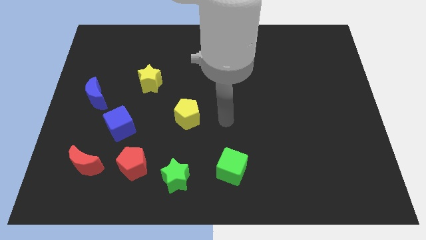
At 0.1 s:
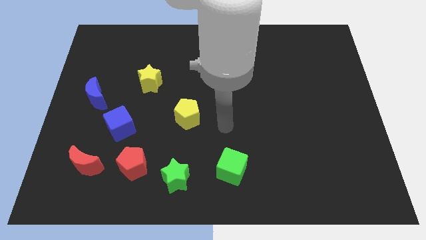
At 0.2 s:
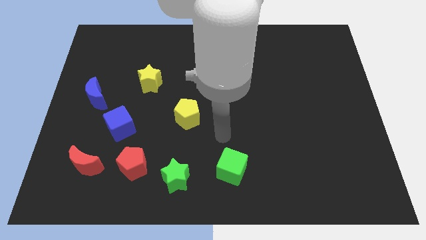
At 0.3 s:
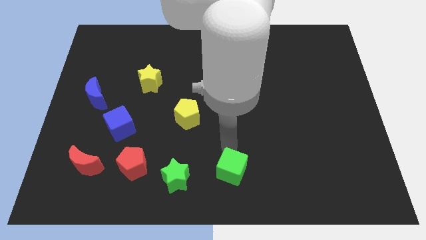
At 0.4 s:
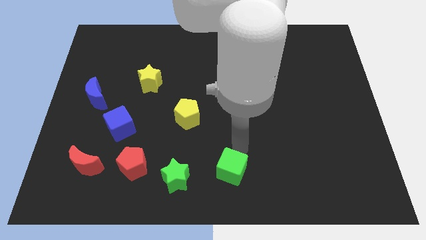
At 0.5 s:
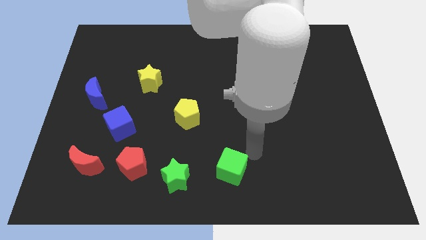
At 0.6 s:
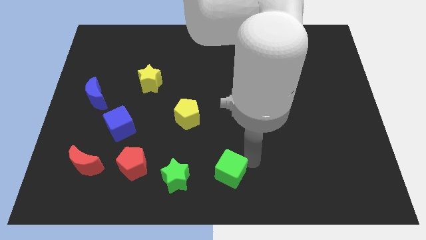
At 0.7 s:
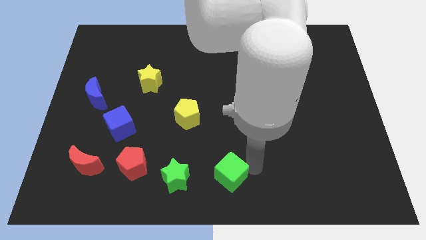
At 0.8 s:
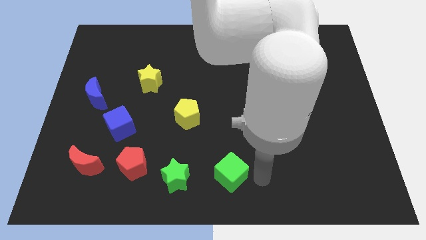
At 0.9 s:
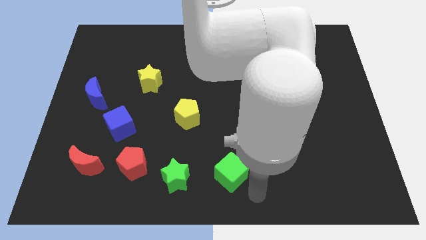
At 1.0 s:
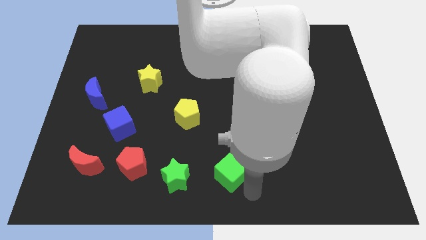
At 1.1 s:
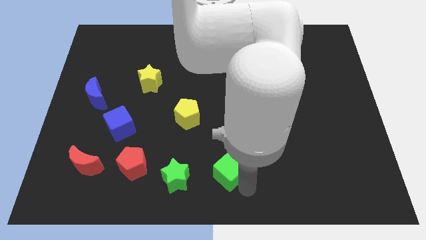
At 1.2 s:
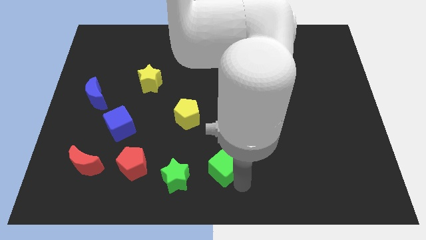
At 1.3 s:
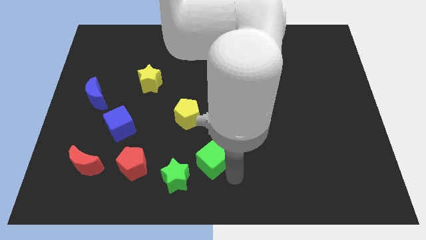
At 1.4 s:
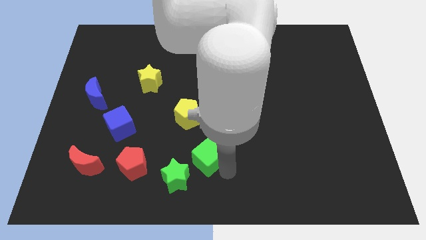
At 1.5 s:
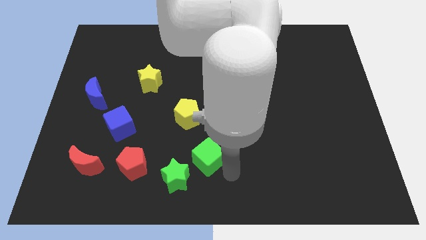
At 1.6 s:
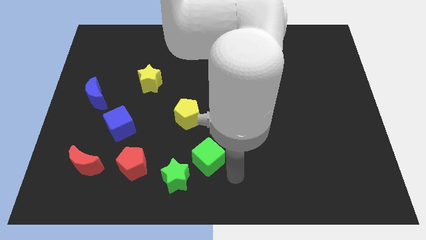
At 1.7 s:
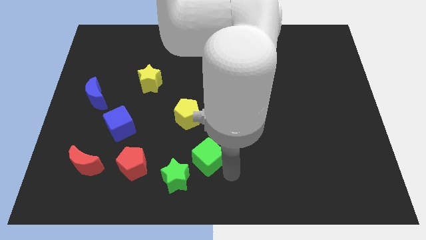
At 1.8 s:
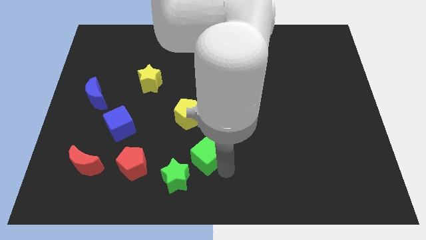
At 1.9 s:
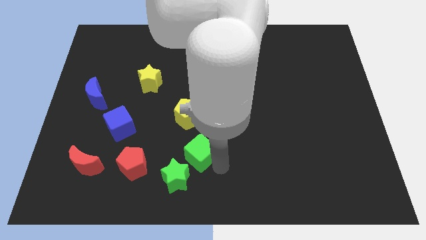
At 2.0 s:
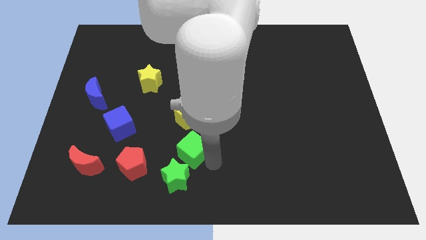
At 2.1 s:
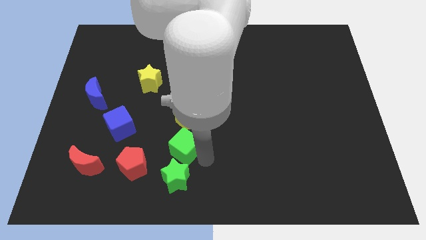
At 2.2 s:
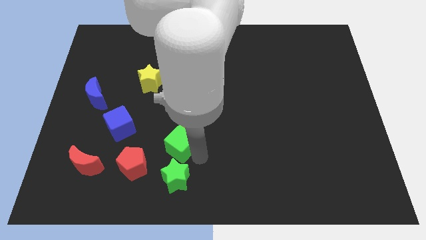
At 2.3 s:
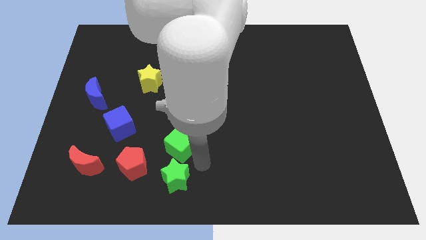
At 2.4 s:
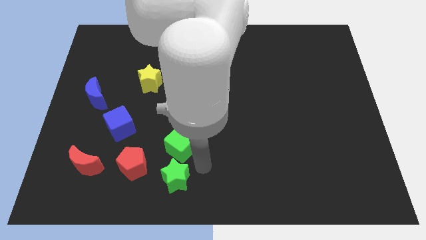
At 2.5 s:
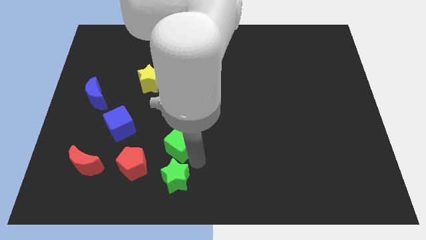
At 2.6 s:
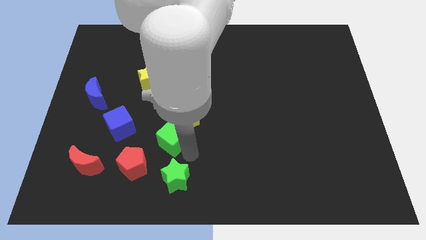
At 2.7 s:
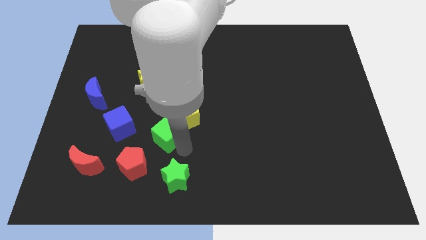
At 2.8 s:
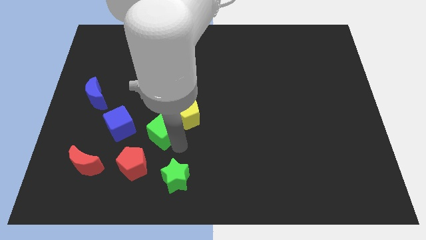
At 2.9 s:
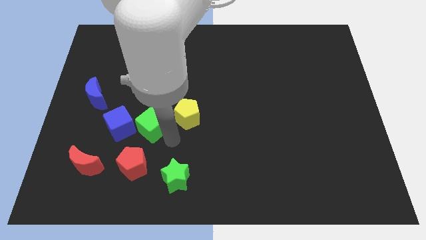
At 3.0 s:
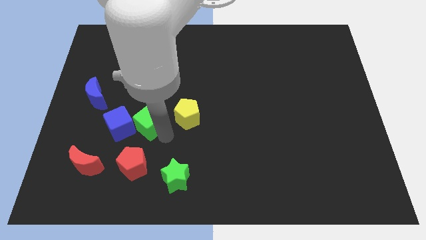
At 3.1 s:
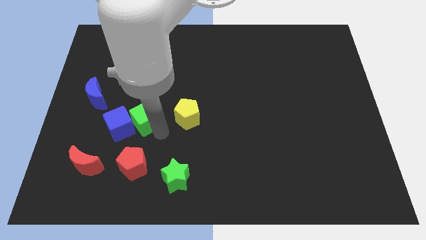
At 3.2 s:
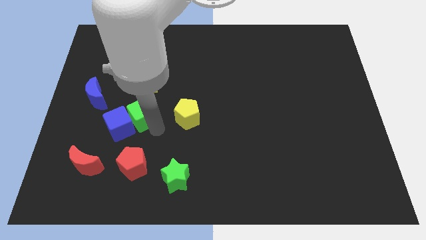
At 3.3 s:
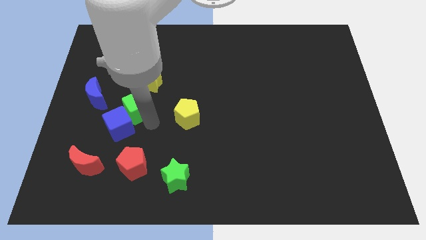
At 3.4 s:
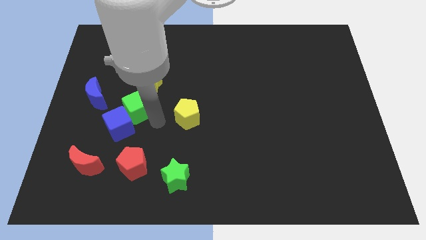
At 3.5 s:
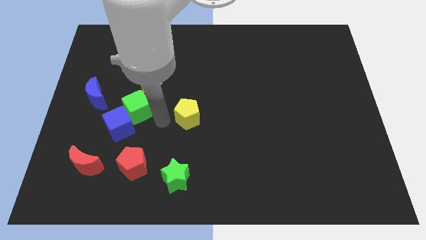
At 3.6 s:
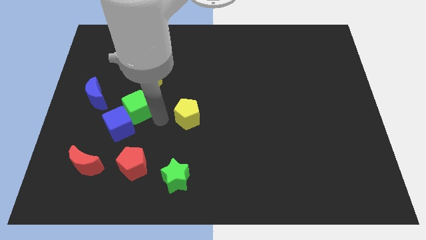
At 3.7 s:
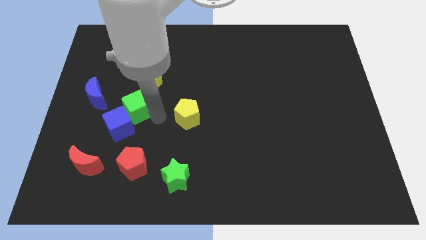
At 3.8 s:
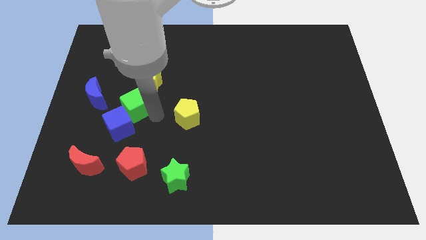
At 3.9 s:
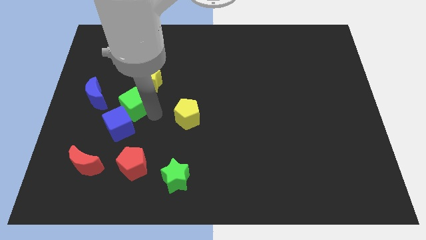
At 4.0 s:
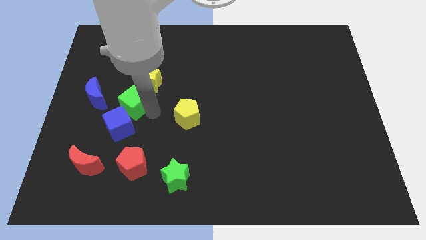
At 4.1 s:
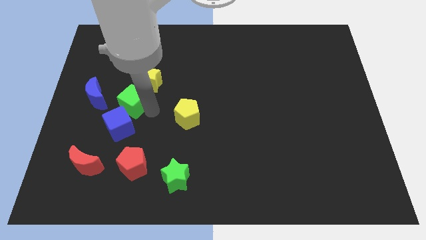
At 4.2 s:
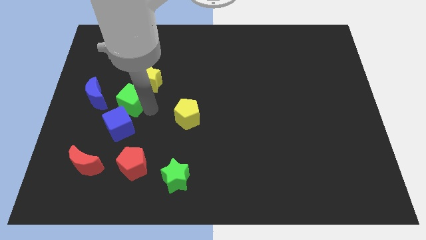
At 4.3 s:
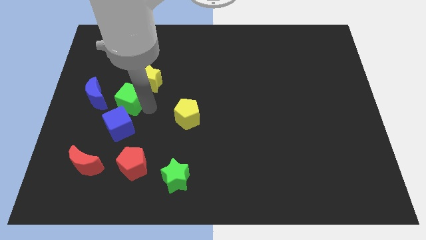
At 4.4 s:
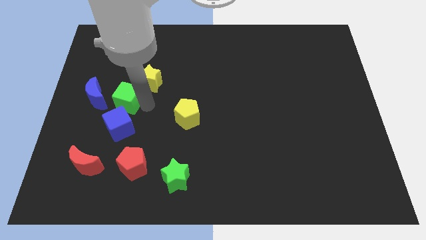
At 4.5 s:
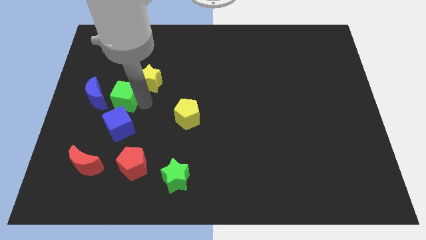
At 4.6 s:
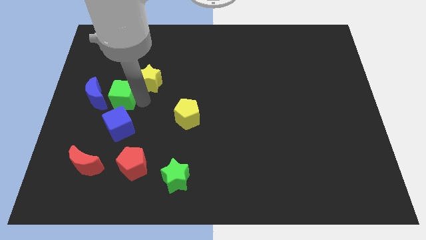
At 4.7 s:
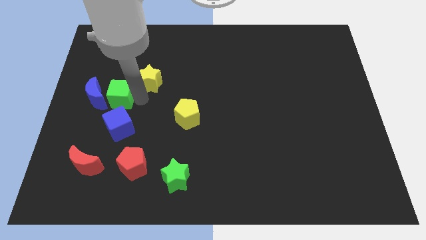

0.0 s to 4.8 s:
put the green cube next to the blue moon

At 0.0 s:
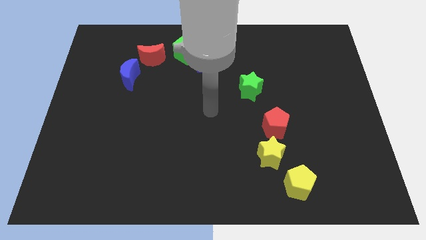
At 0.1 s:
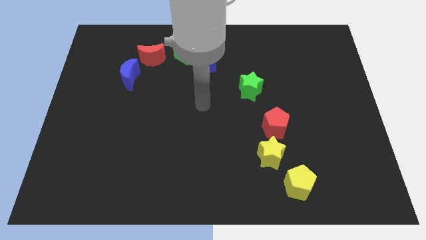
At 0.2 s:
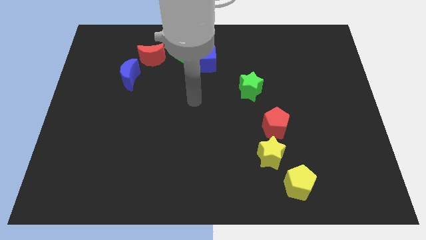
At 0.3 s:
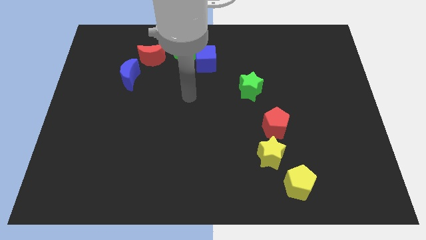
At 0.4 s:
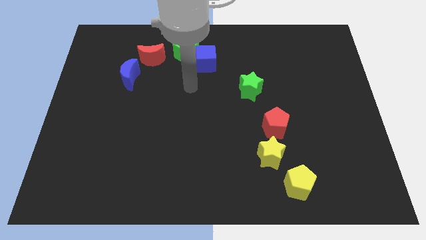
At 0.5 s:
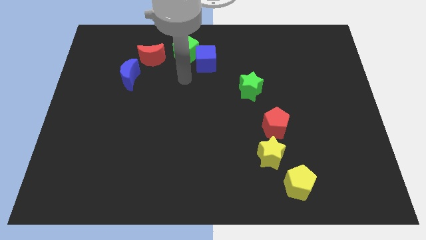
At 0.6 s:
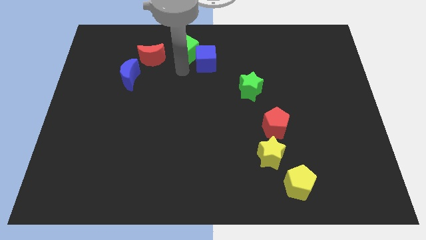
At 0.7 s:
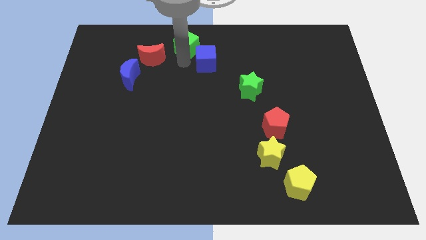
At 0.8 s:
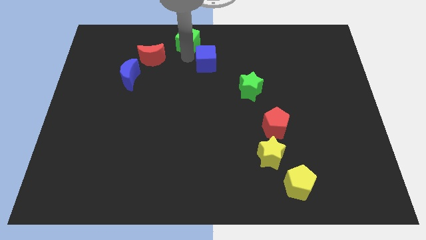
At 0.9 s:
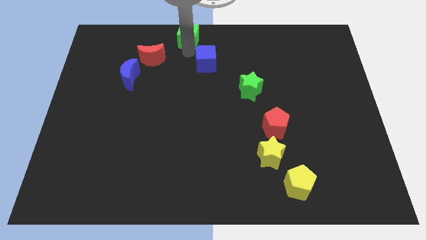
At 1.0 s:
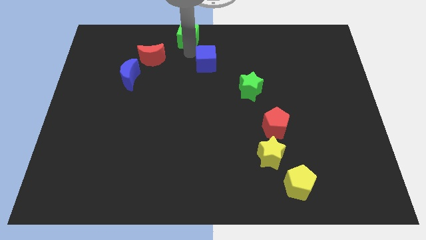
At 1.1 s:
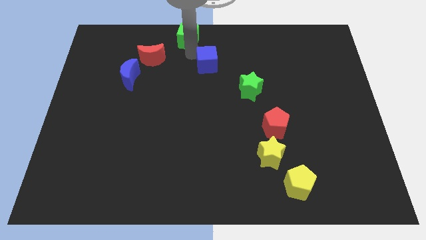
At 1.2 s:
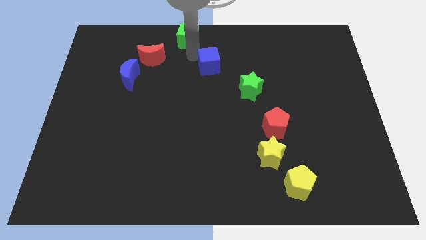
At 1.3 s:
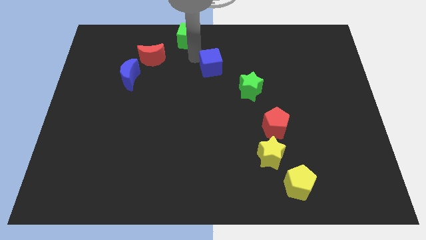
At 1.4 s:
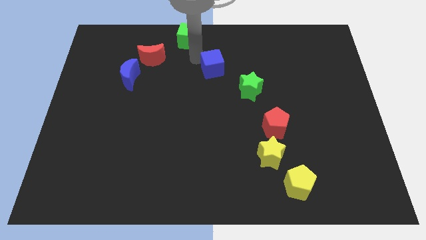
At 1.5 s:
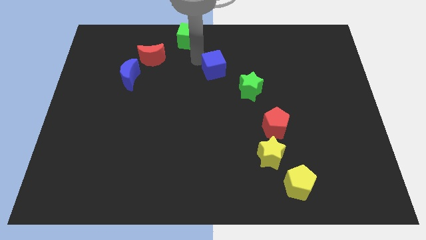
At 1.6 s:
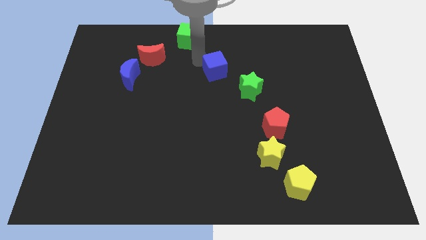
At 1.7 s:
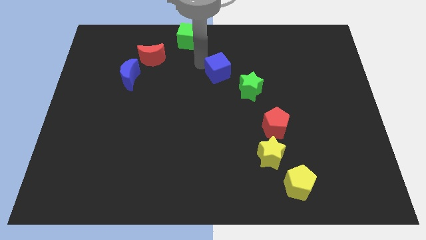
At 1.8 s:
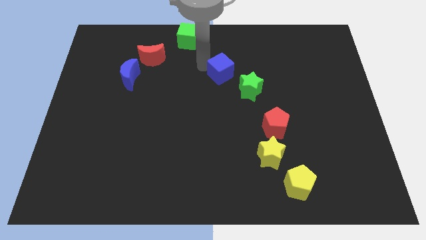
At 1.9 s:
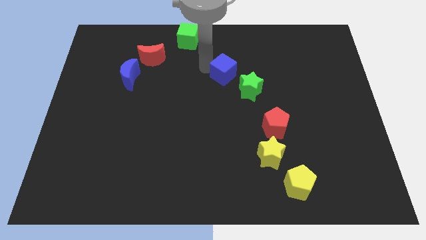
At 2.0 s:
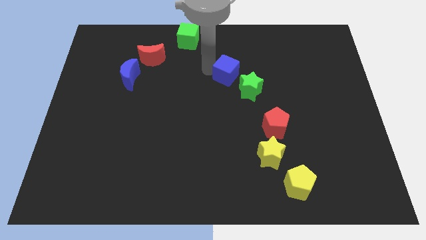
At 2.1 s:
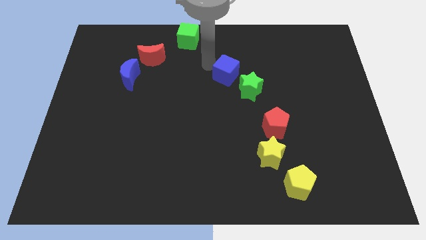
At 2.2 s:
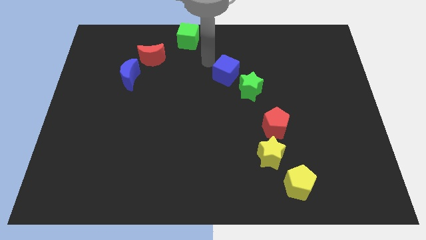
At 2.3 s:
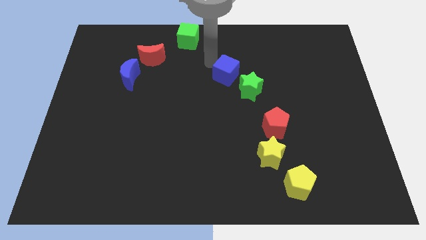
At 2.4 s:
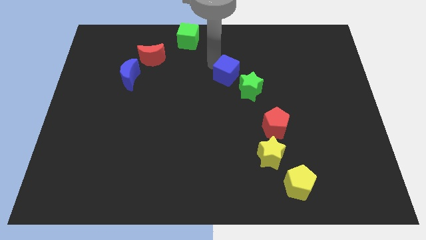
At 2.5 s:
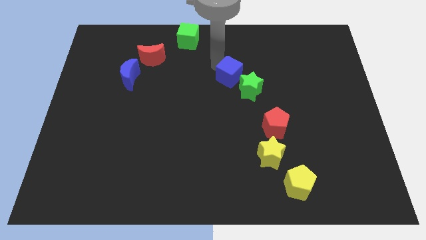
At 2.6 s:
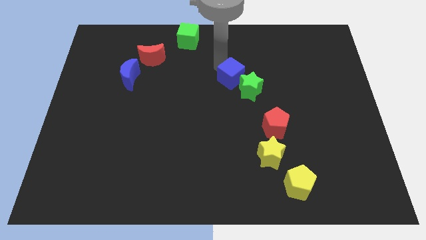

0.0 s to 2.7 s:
put the blue cube to the green star

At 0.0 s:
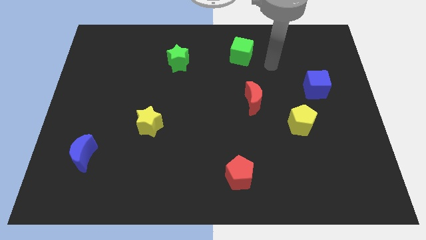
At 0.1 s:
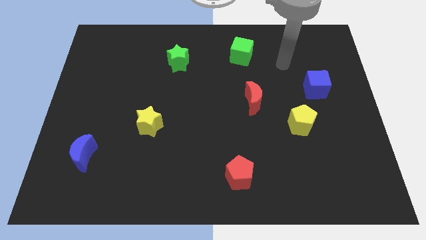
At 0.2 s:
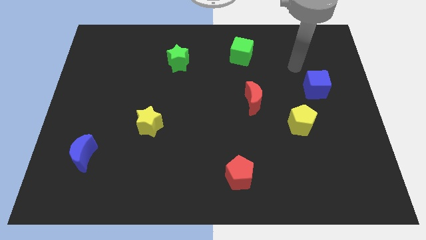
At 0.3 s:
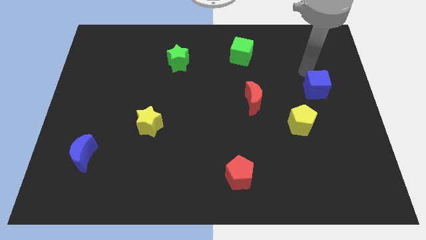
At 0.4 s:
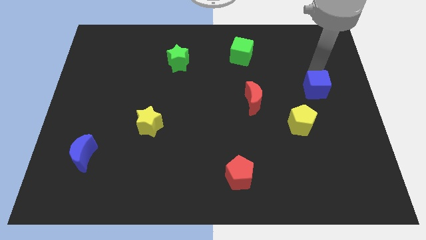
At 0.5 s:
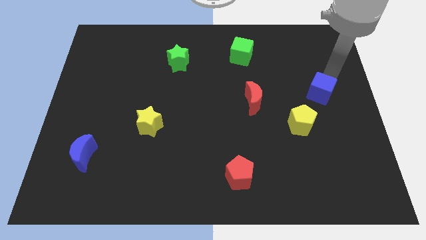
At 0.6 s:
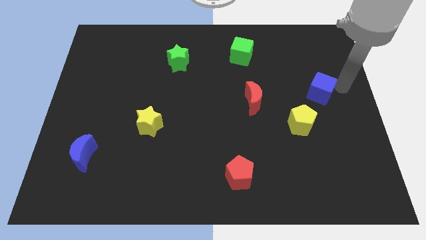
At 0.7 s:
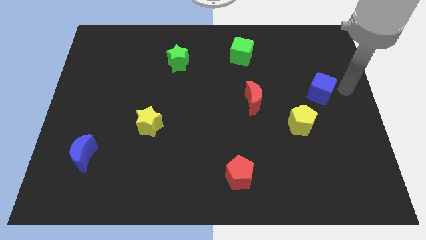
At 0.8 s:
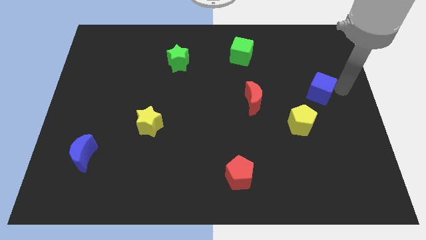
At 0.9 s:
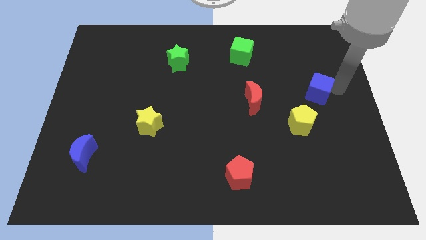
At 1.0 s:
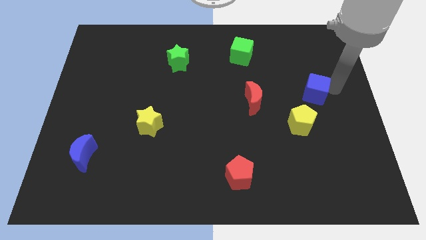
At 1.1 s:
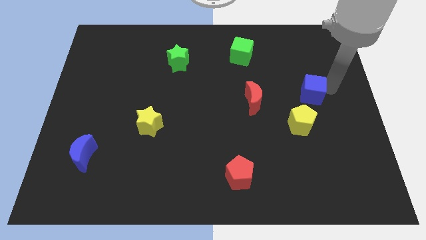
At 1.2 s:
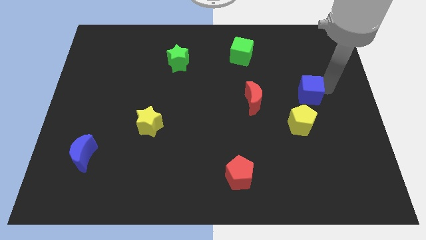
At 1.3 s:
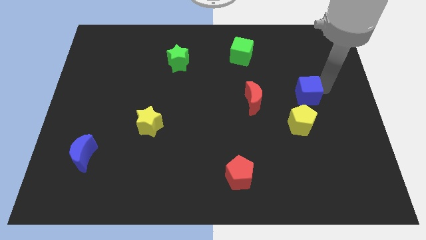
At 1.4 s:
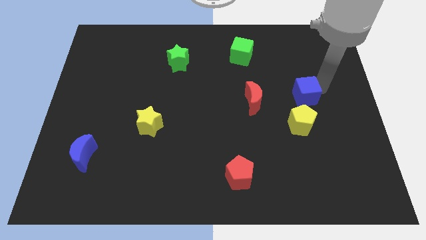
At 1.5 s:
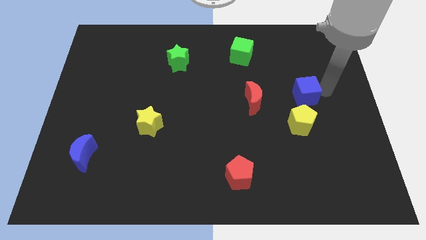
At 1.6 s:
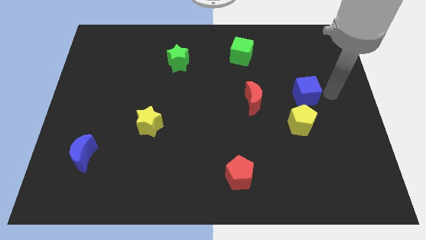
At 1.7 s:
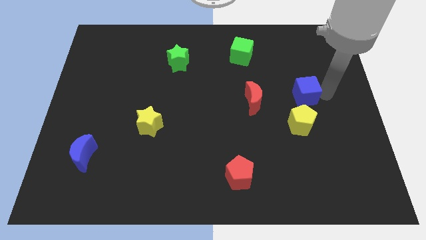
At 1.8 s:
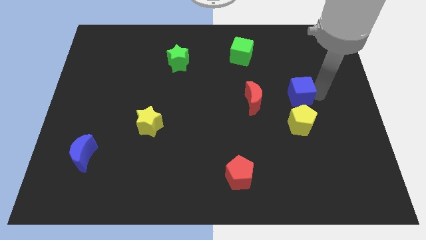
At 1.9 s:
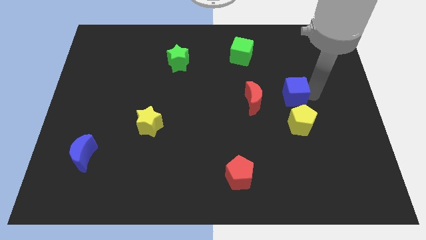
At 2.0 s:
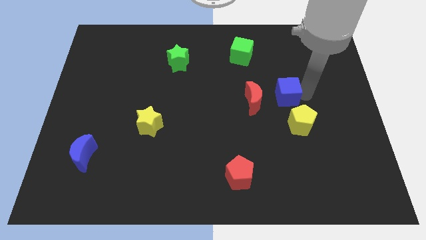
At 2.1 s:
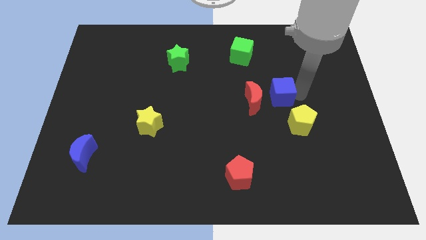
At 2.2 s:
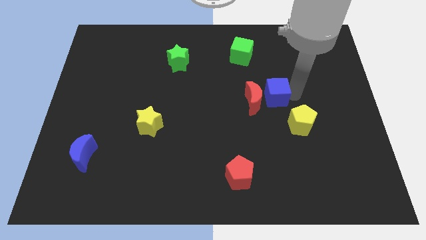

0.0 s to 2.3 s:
put the blue cube to the red moon
